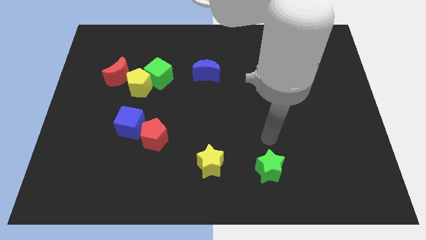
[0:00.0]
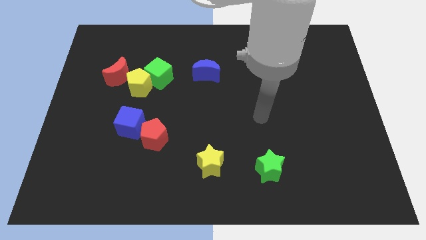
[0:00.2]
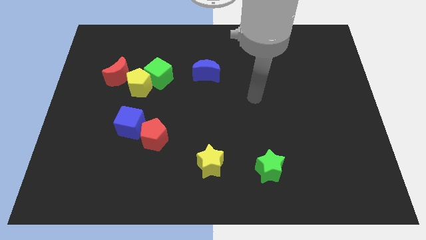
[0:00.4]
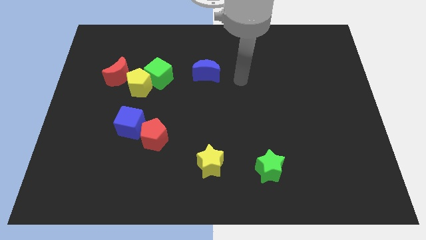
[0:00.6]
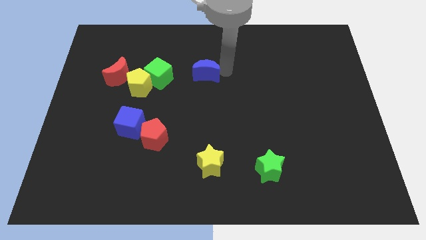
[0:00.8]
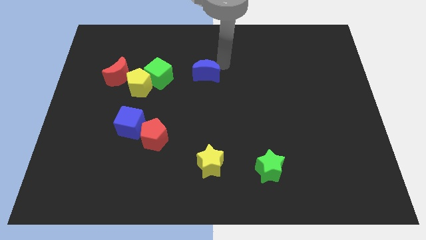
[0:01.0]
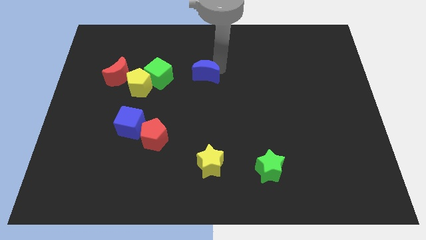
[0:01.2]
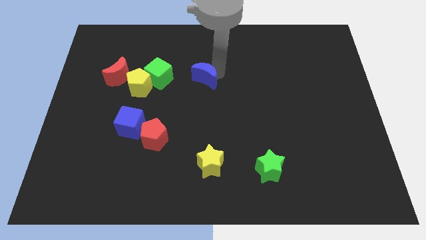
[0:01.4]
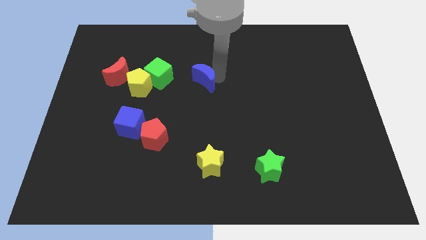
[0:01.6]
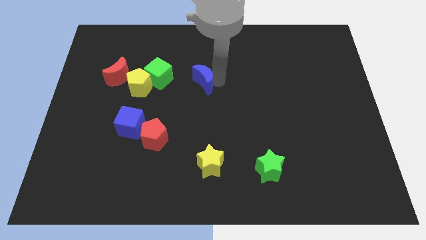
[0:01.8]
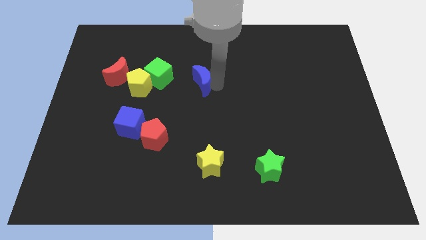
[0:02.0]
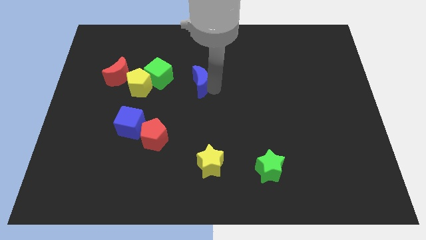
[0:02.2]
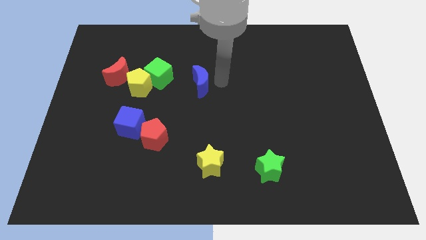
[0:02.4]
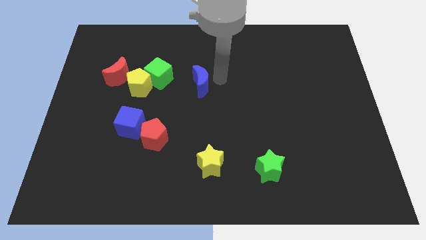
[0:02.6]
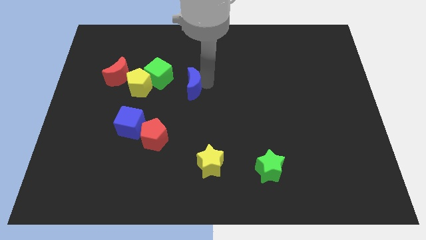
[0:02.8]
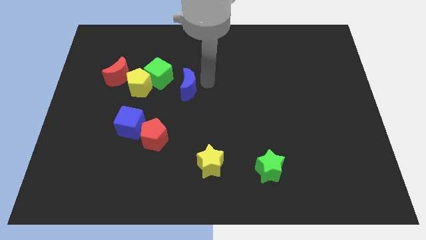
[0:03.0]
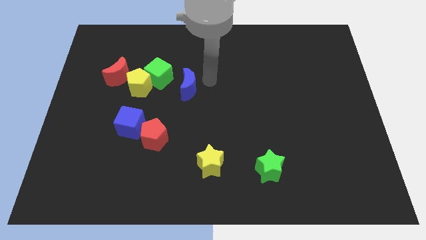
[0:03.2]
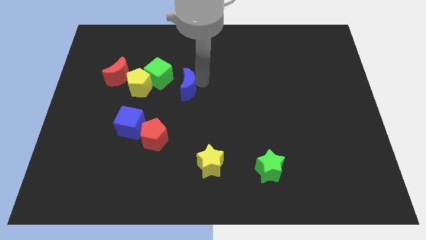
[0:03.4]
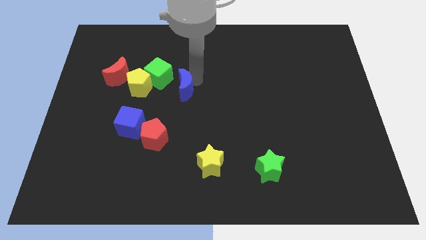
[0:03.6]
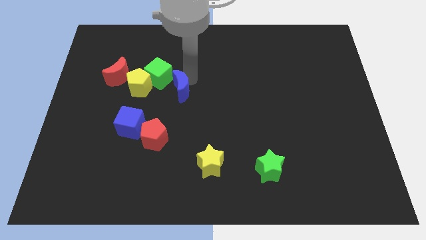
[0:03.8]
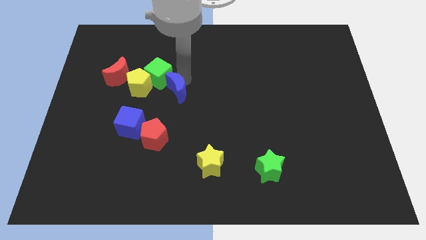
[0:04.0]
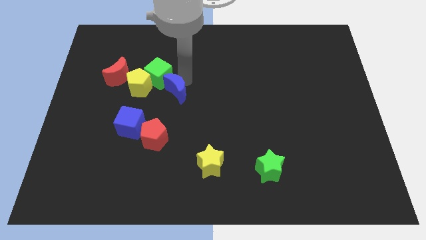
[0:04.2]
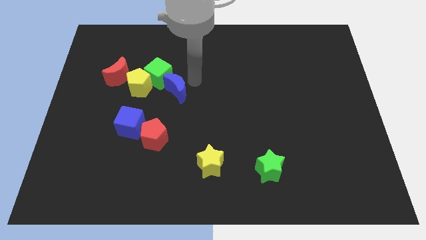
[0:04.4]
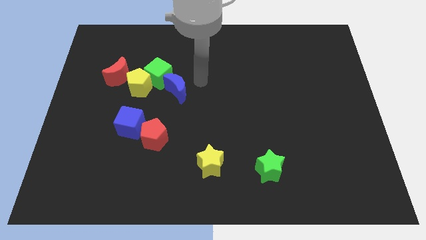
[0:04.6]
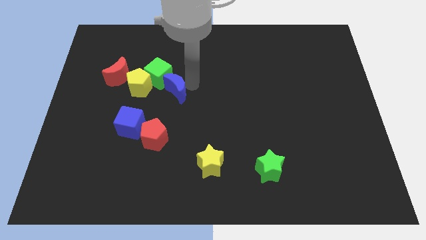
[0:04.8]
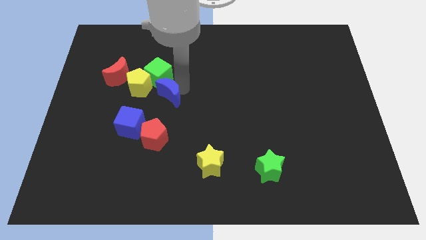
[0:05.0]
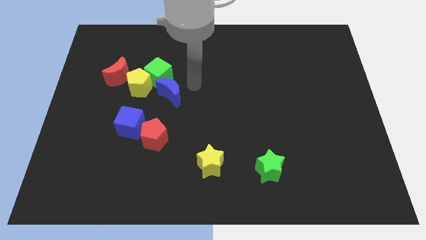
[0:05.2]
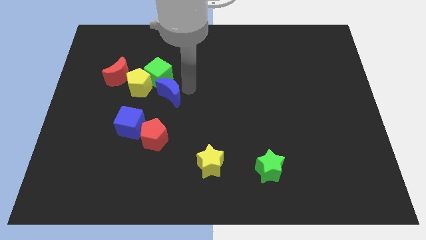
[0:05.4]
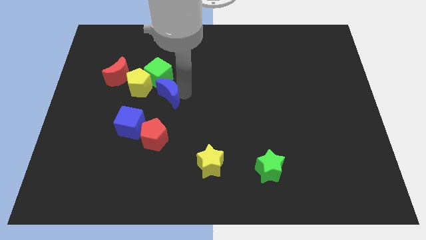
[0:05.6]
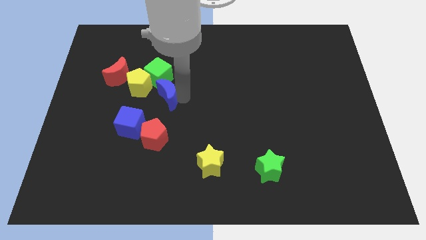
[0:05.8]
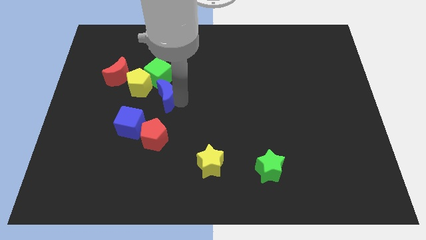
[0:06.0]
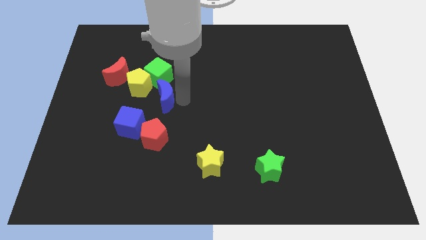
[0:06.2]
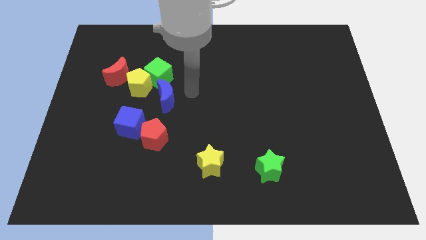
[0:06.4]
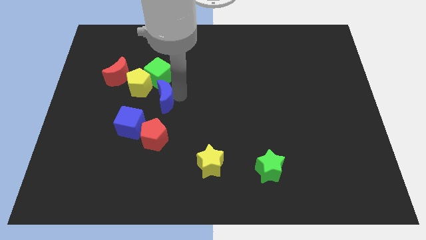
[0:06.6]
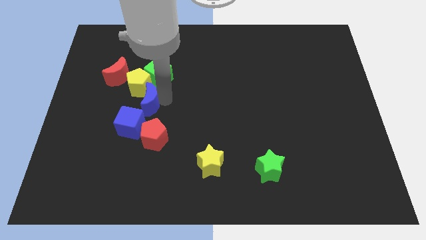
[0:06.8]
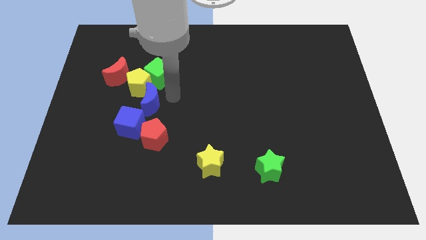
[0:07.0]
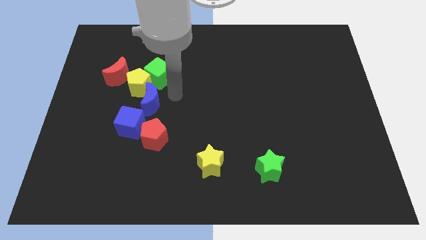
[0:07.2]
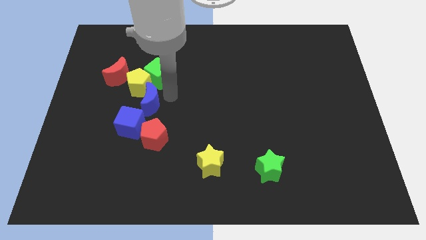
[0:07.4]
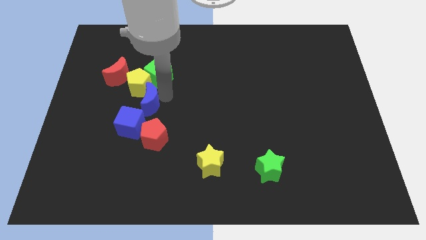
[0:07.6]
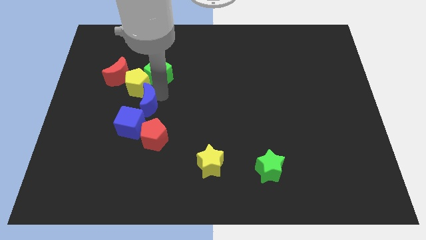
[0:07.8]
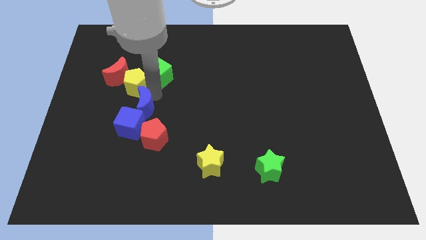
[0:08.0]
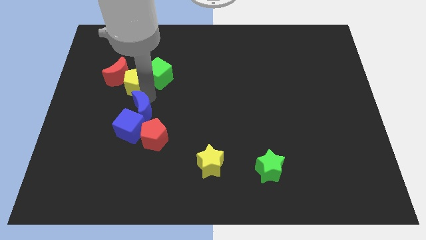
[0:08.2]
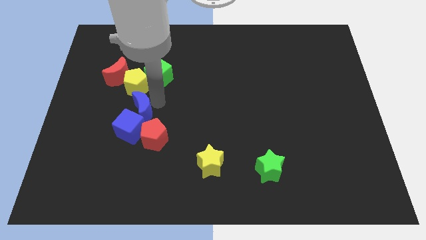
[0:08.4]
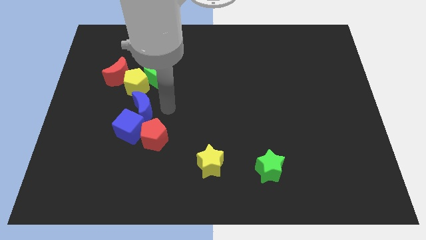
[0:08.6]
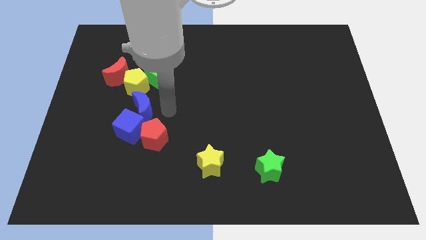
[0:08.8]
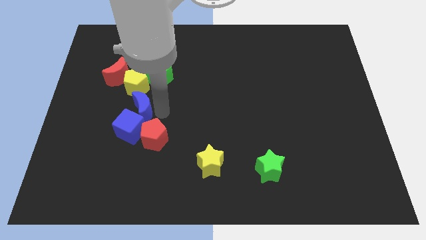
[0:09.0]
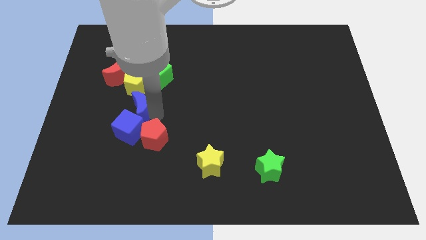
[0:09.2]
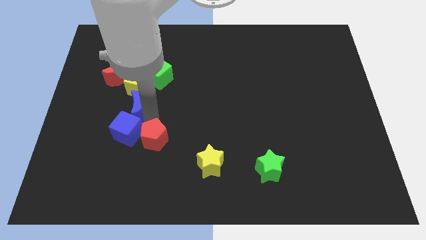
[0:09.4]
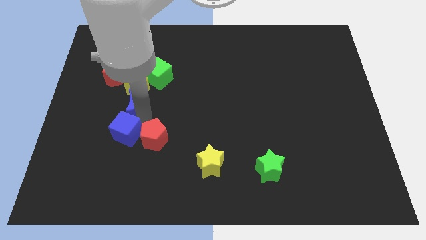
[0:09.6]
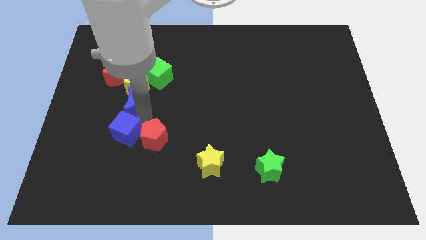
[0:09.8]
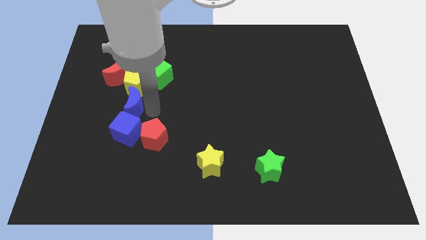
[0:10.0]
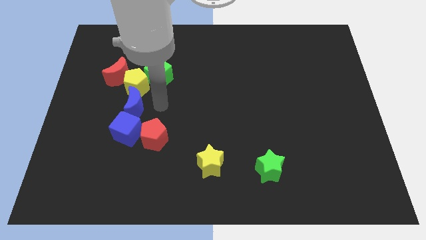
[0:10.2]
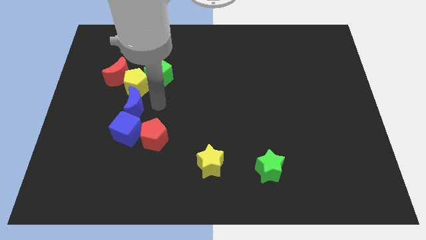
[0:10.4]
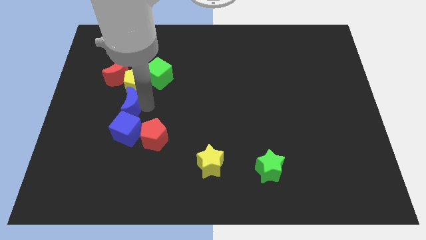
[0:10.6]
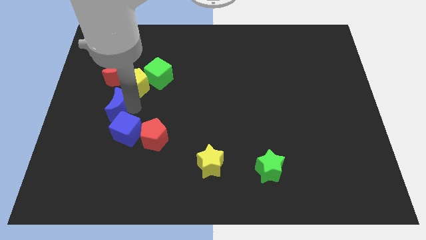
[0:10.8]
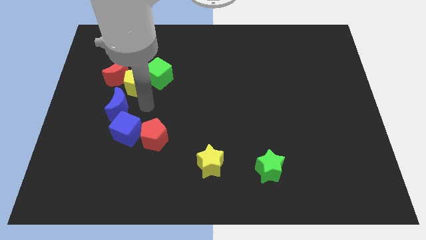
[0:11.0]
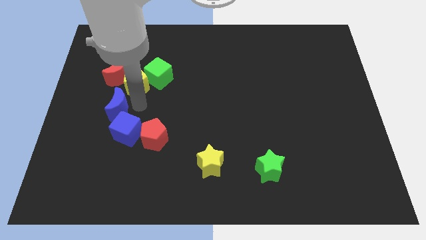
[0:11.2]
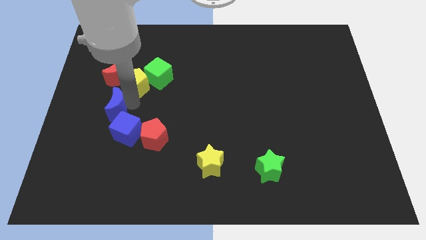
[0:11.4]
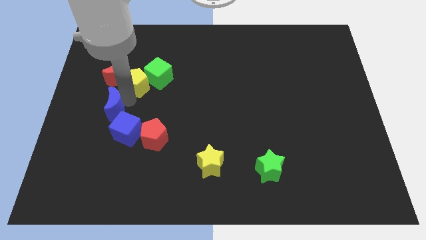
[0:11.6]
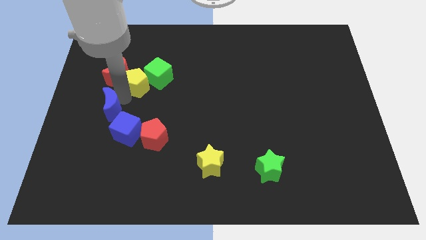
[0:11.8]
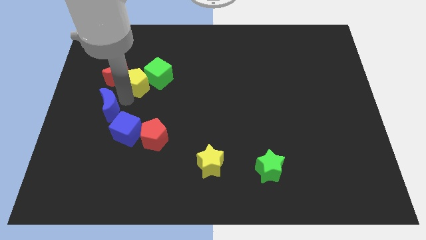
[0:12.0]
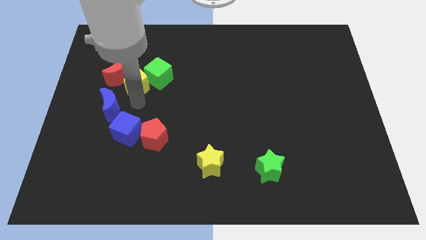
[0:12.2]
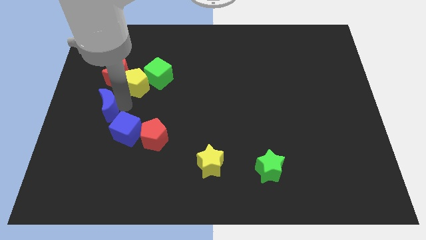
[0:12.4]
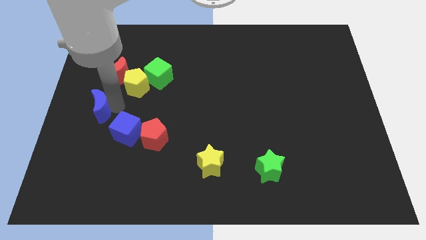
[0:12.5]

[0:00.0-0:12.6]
move the blue moon to the center left

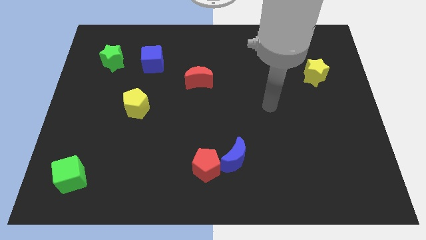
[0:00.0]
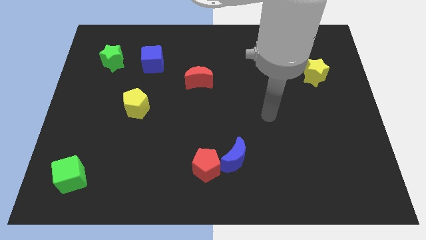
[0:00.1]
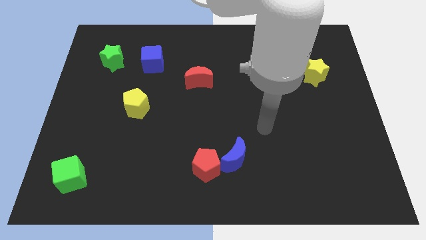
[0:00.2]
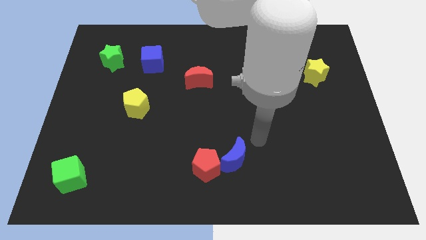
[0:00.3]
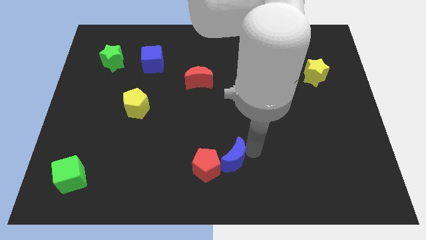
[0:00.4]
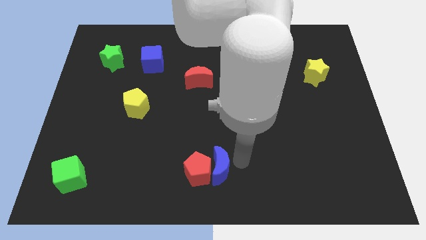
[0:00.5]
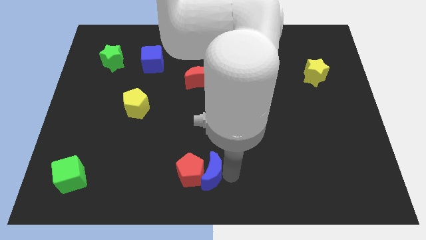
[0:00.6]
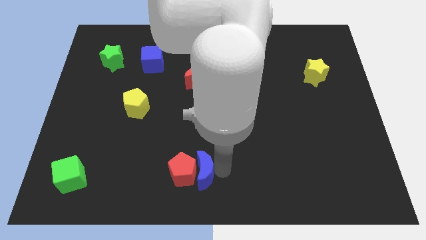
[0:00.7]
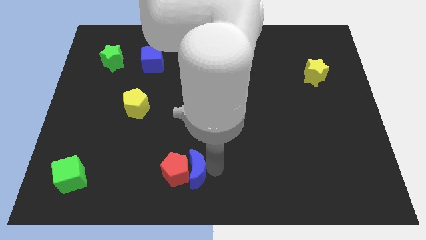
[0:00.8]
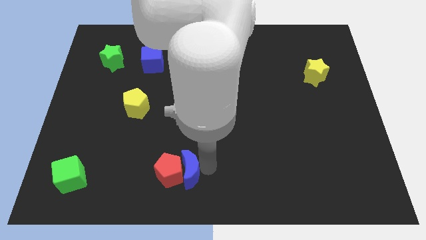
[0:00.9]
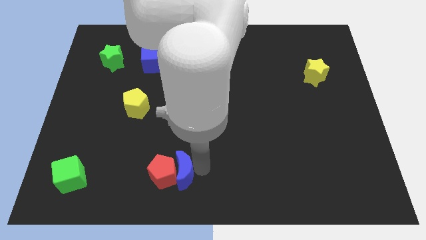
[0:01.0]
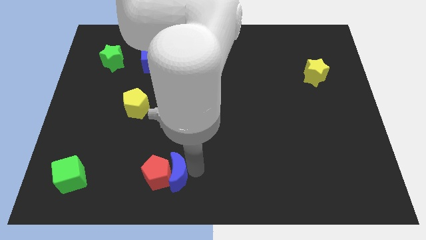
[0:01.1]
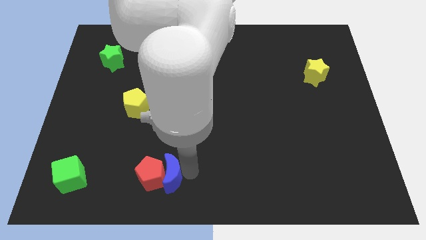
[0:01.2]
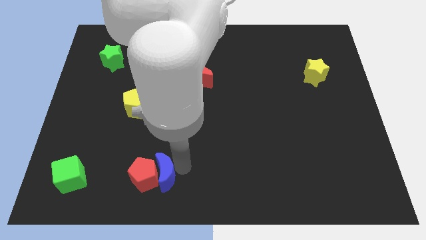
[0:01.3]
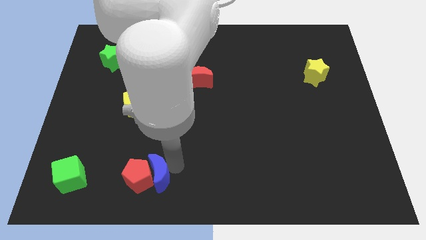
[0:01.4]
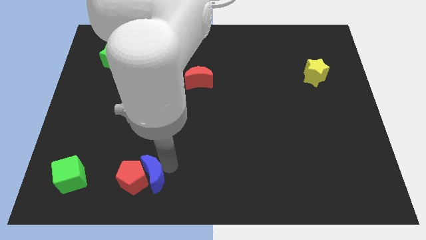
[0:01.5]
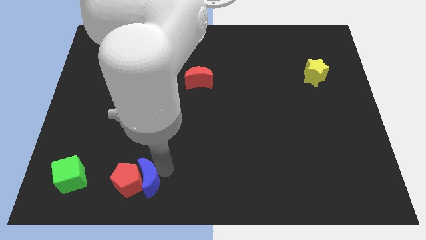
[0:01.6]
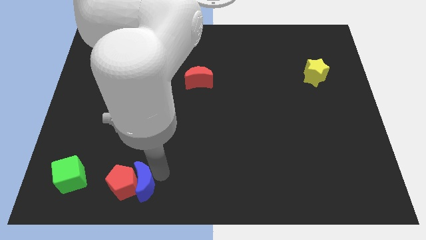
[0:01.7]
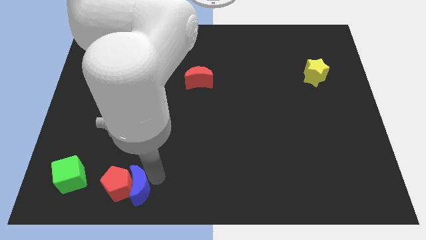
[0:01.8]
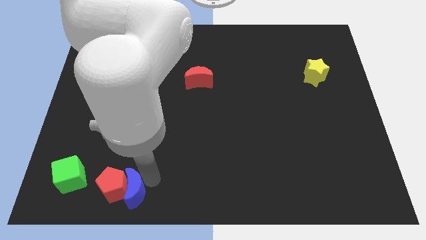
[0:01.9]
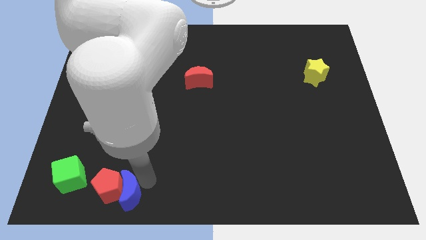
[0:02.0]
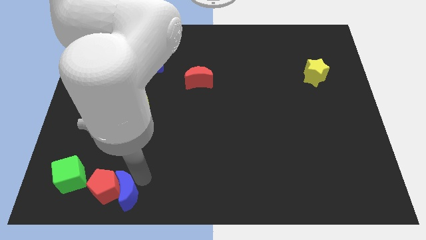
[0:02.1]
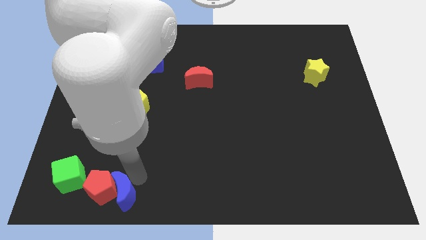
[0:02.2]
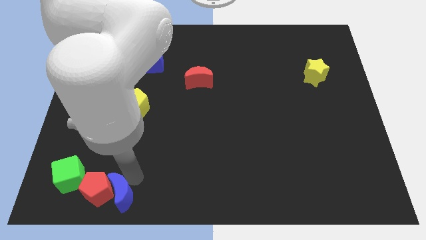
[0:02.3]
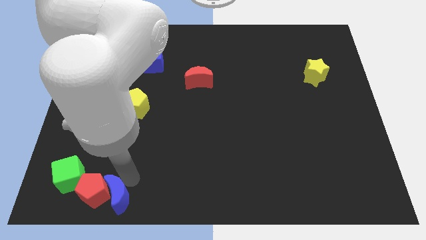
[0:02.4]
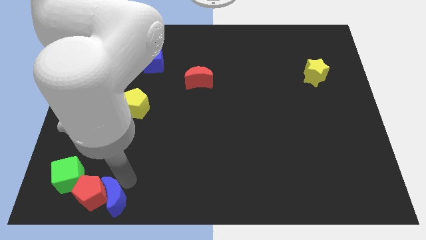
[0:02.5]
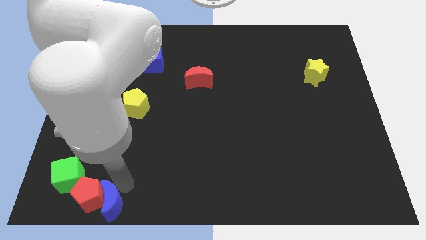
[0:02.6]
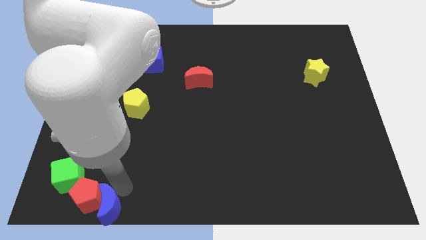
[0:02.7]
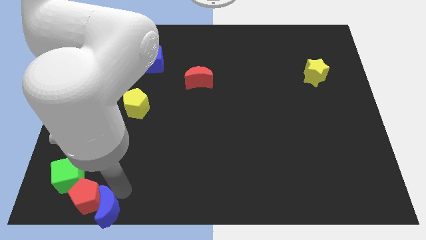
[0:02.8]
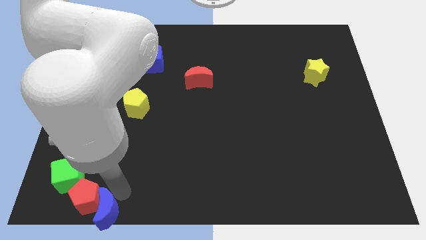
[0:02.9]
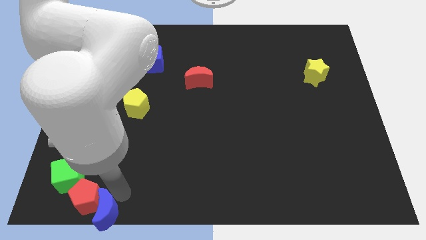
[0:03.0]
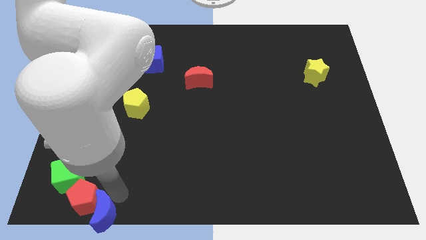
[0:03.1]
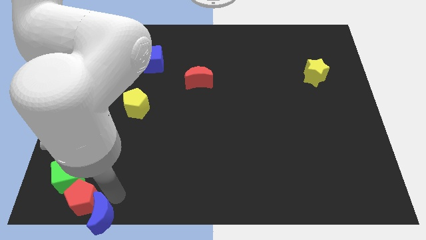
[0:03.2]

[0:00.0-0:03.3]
slide the red pentagon to the bottom left of the board
